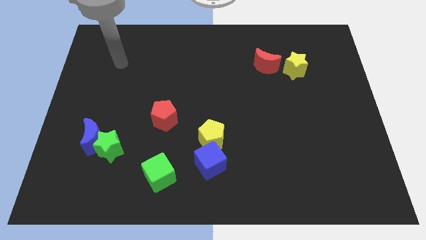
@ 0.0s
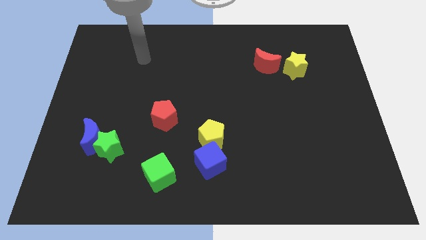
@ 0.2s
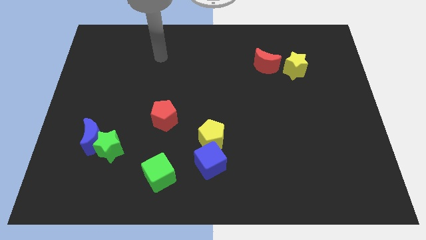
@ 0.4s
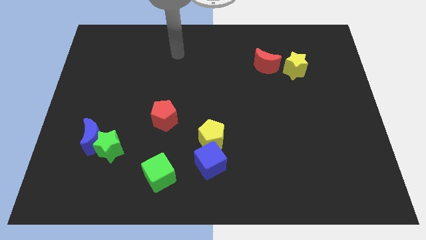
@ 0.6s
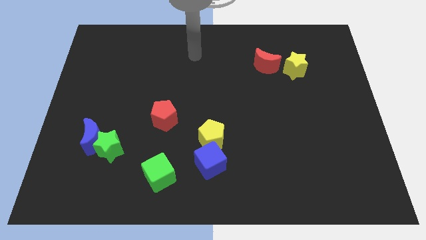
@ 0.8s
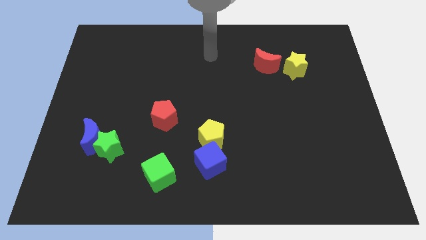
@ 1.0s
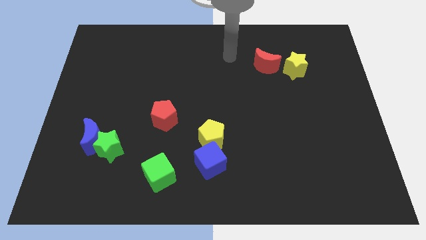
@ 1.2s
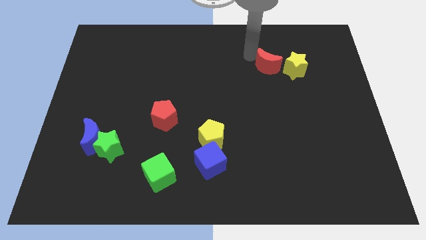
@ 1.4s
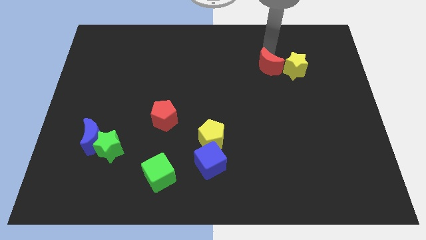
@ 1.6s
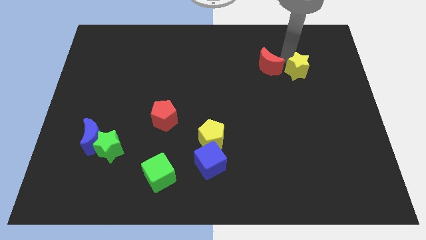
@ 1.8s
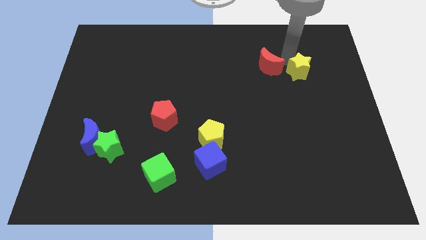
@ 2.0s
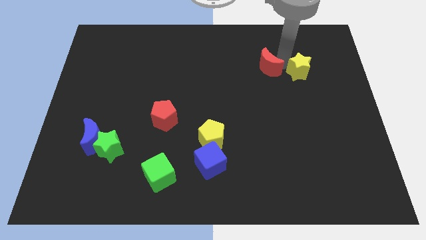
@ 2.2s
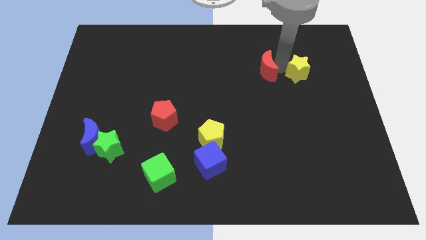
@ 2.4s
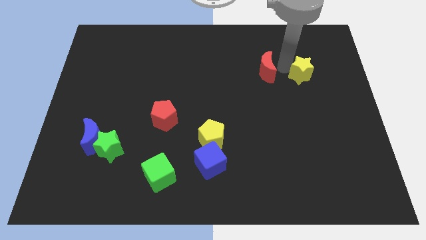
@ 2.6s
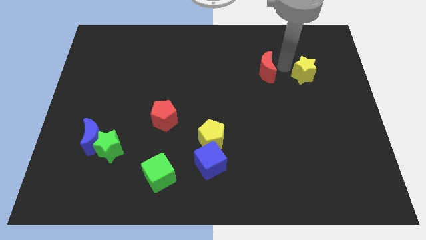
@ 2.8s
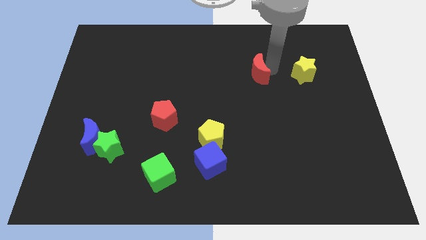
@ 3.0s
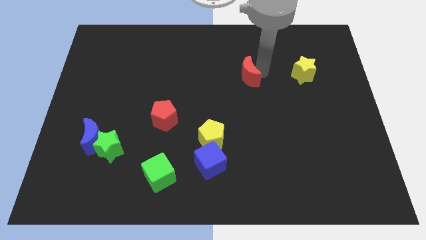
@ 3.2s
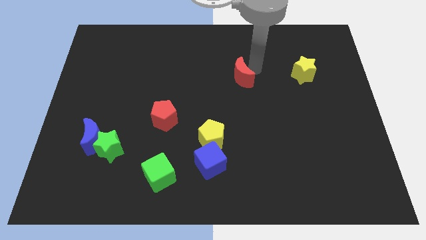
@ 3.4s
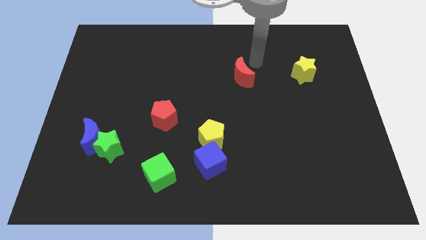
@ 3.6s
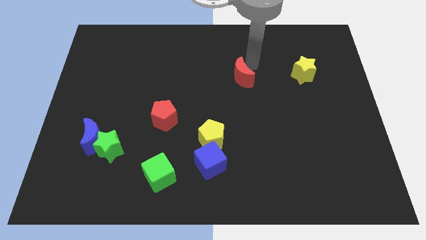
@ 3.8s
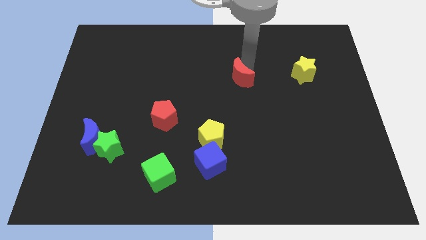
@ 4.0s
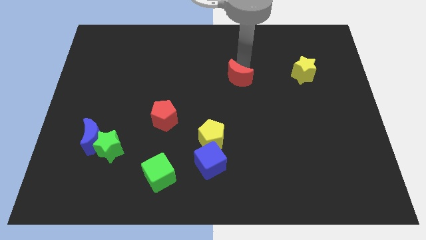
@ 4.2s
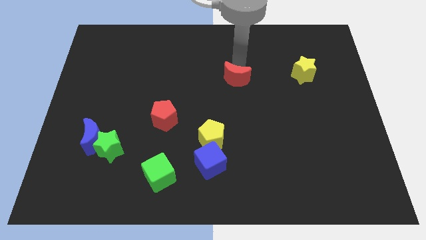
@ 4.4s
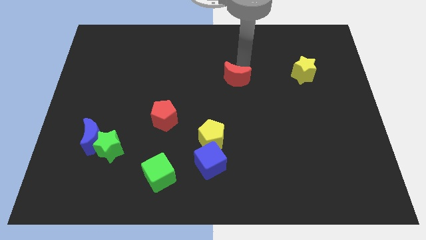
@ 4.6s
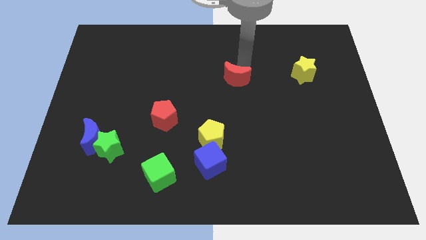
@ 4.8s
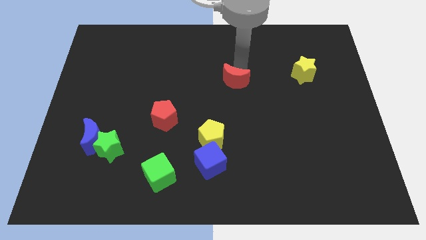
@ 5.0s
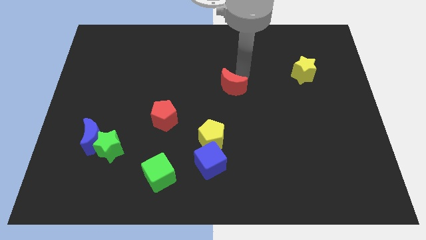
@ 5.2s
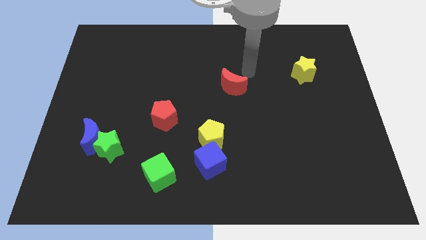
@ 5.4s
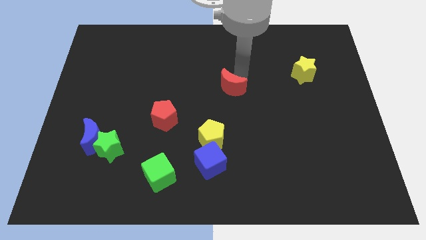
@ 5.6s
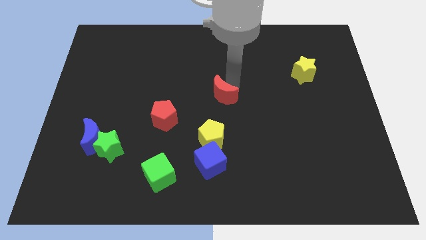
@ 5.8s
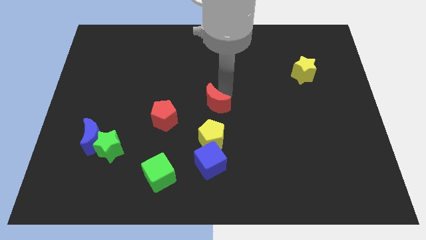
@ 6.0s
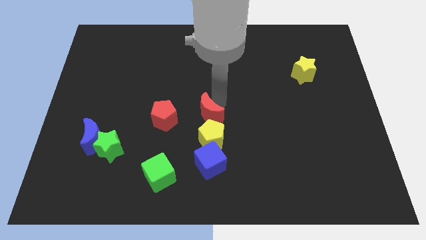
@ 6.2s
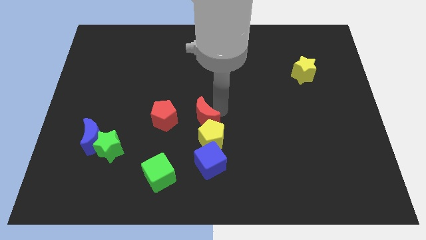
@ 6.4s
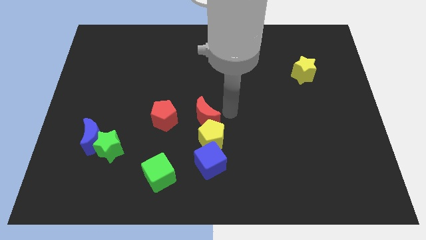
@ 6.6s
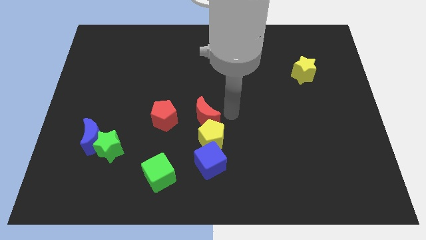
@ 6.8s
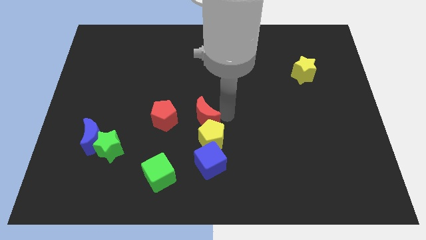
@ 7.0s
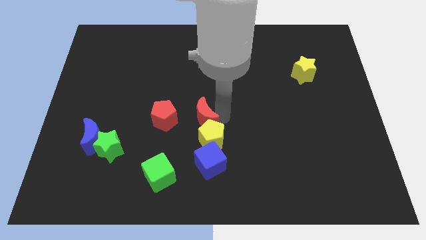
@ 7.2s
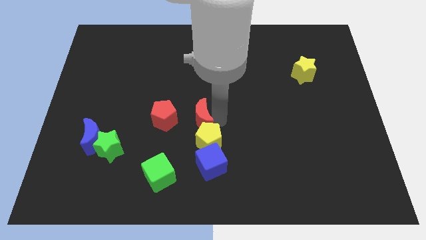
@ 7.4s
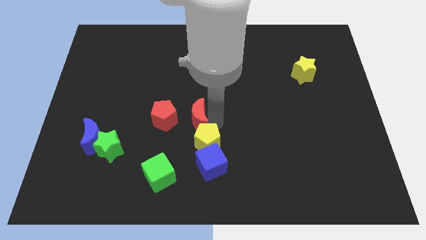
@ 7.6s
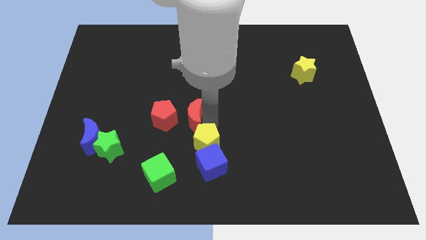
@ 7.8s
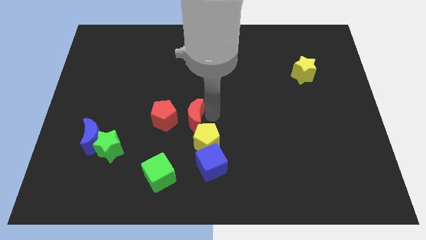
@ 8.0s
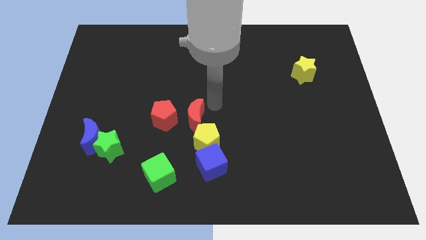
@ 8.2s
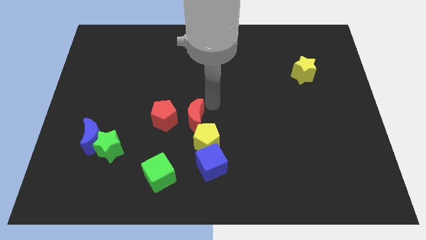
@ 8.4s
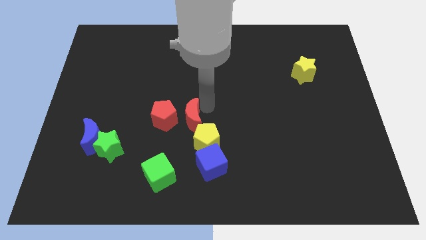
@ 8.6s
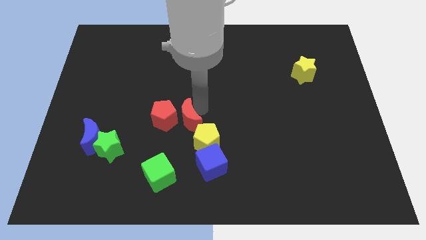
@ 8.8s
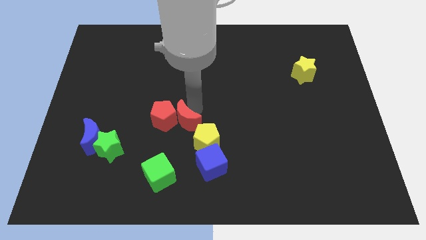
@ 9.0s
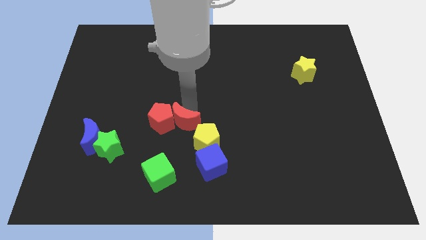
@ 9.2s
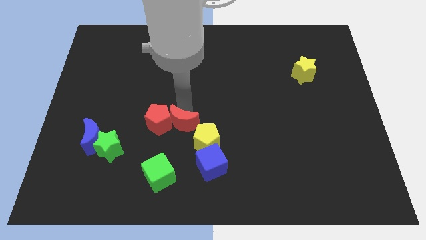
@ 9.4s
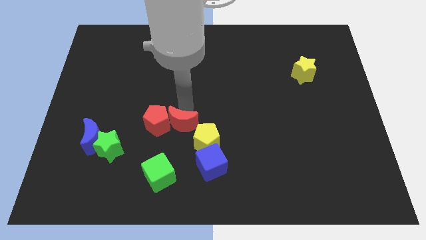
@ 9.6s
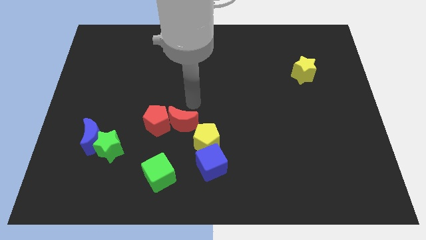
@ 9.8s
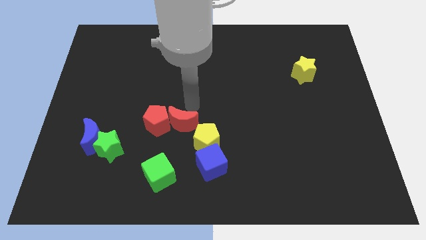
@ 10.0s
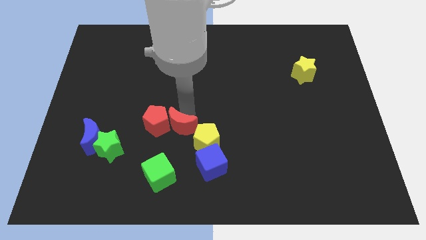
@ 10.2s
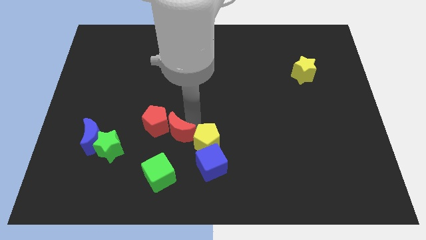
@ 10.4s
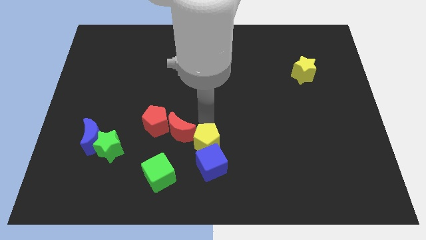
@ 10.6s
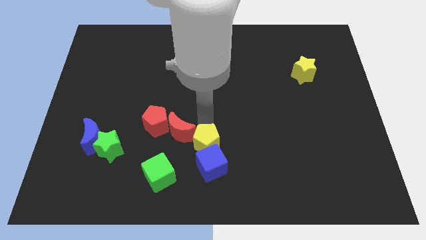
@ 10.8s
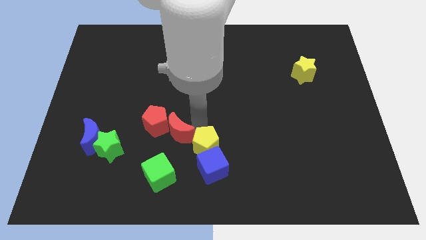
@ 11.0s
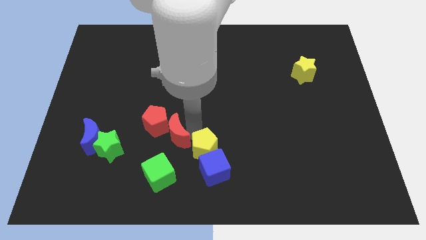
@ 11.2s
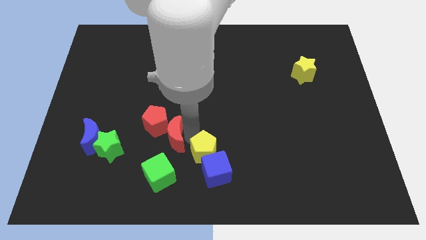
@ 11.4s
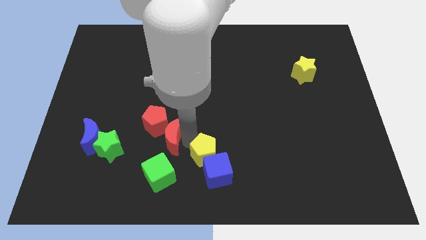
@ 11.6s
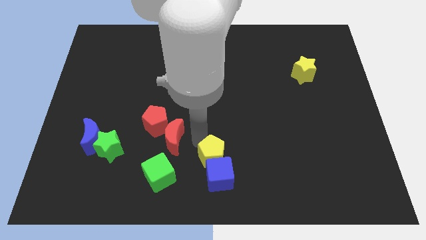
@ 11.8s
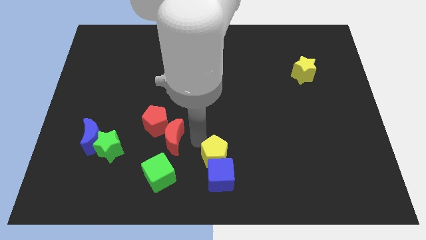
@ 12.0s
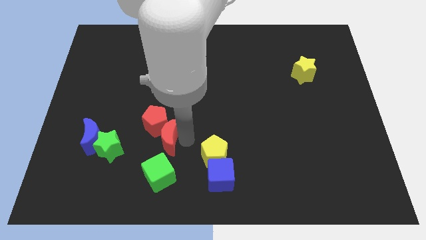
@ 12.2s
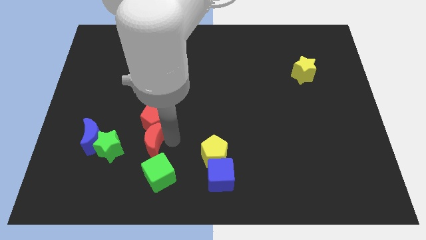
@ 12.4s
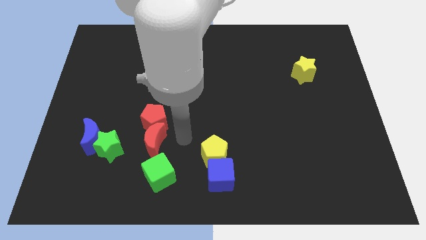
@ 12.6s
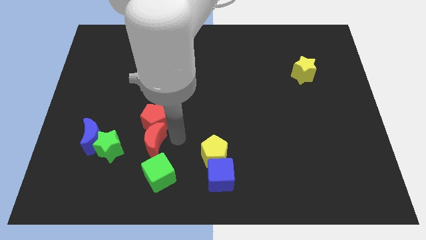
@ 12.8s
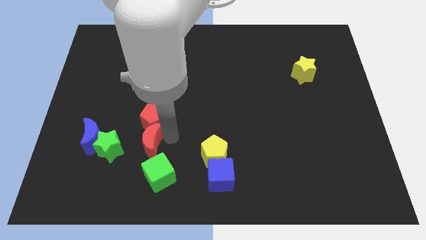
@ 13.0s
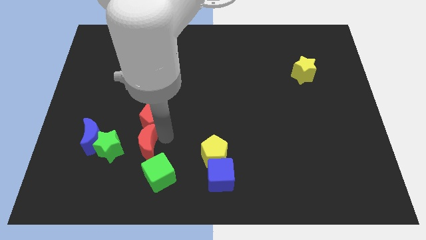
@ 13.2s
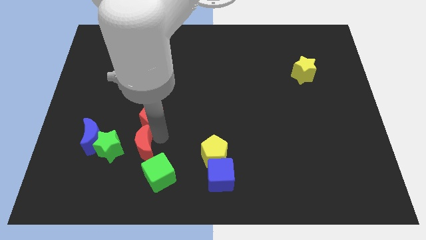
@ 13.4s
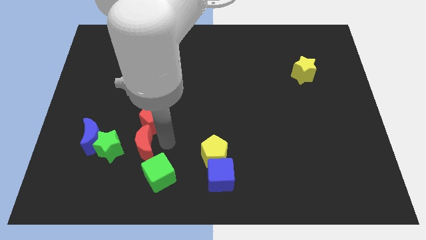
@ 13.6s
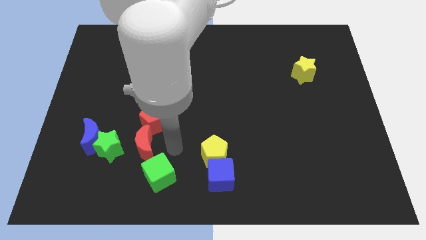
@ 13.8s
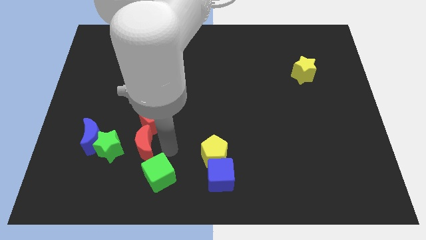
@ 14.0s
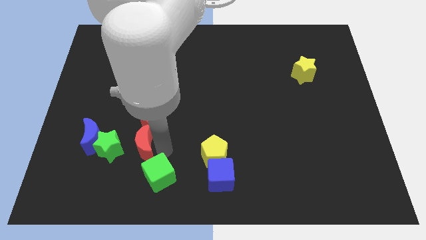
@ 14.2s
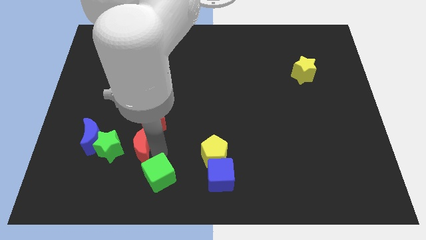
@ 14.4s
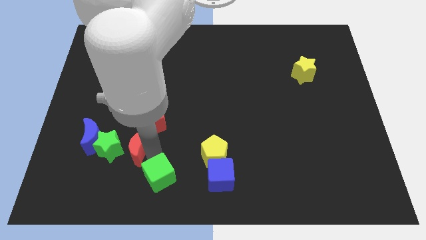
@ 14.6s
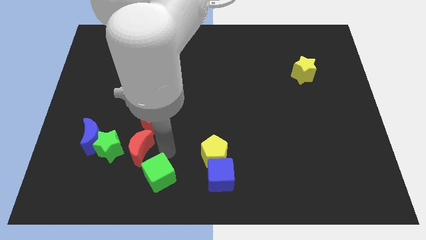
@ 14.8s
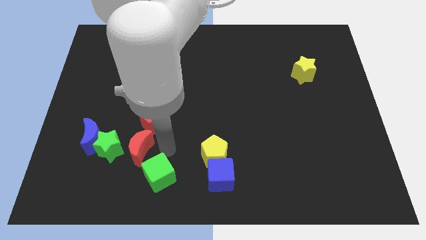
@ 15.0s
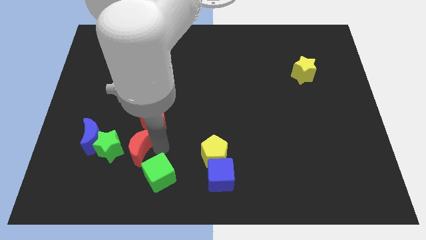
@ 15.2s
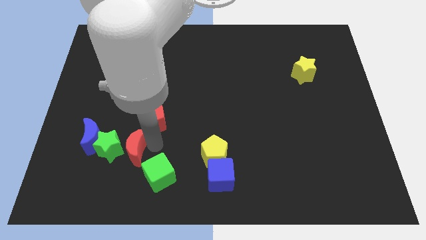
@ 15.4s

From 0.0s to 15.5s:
push the red moon next to the green star
